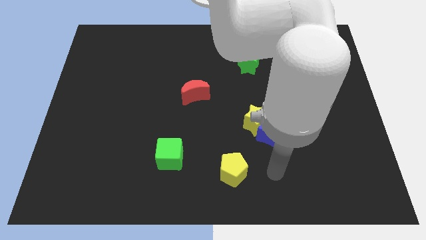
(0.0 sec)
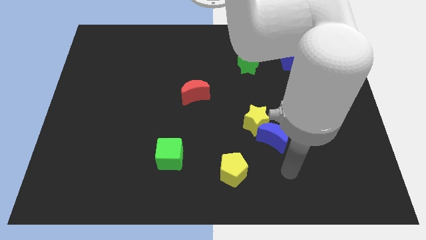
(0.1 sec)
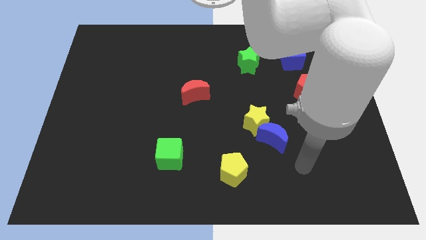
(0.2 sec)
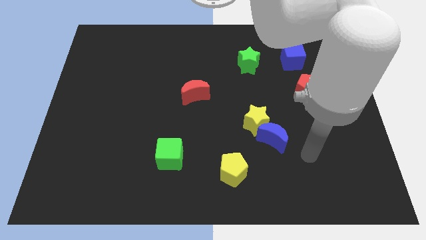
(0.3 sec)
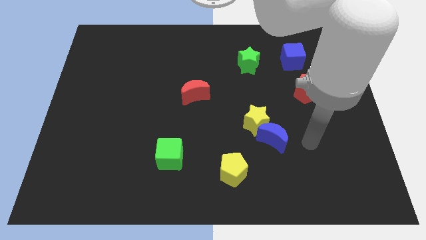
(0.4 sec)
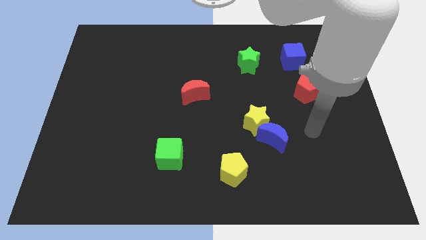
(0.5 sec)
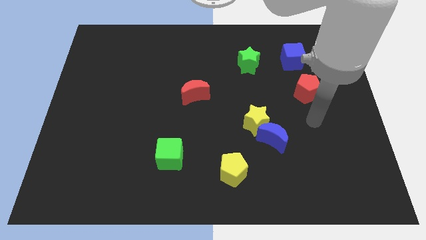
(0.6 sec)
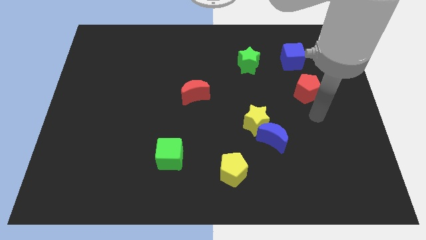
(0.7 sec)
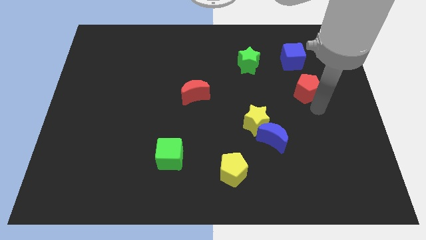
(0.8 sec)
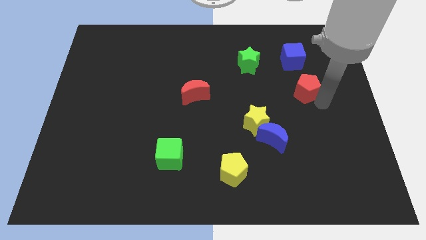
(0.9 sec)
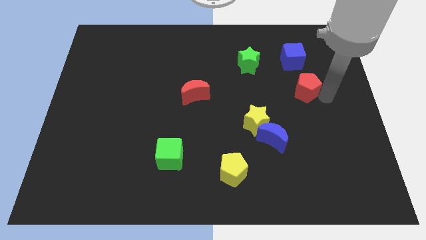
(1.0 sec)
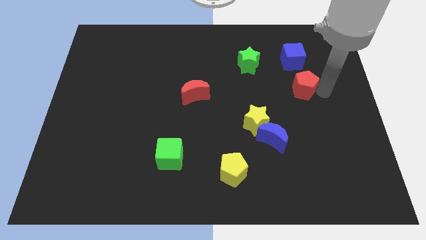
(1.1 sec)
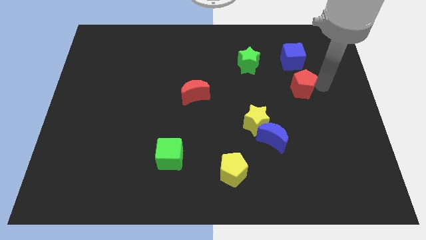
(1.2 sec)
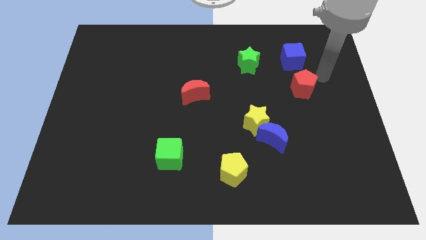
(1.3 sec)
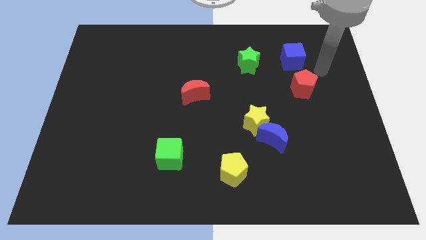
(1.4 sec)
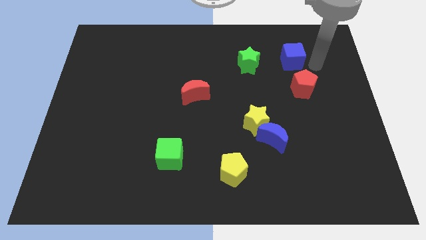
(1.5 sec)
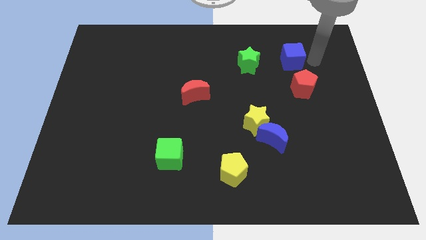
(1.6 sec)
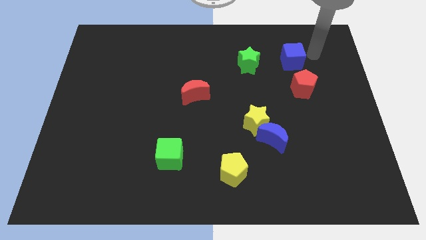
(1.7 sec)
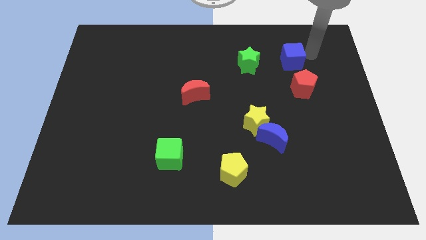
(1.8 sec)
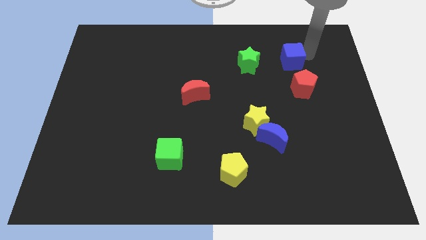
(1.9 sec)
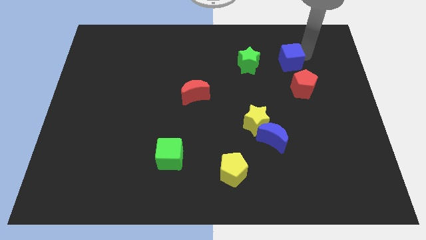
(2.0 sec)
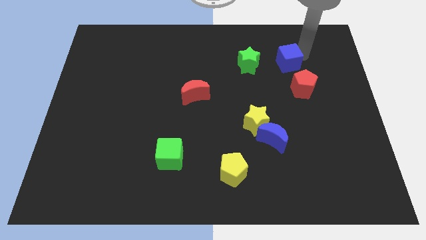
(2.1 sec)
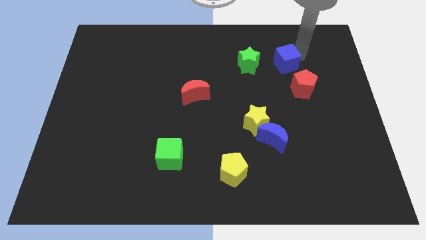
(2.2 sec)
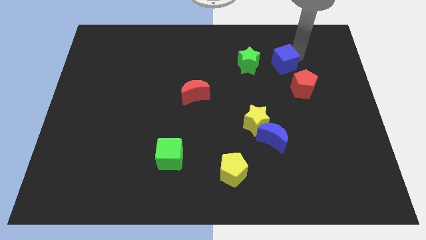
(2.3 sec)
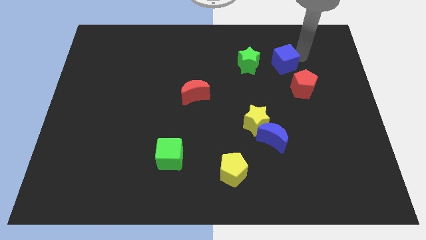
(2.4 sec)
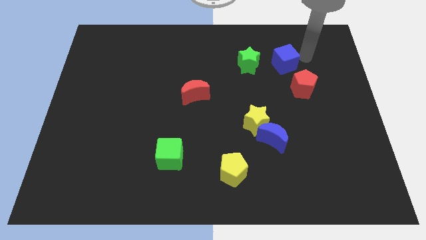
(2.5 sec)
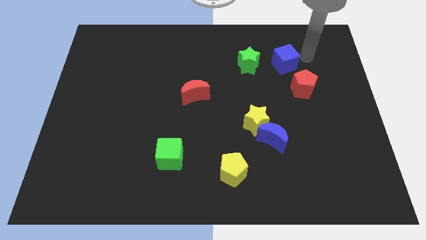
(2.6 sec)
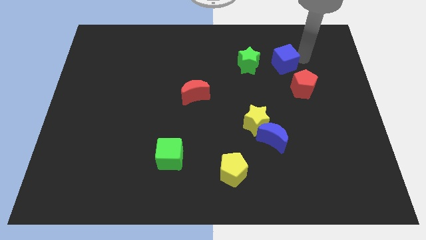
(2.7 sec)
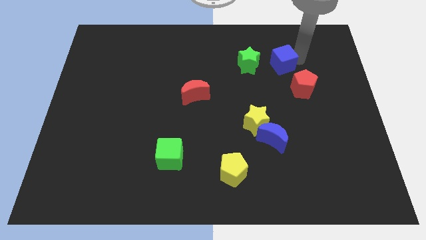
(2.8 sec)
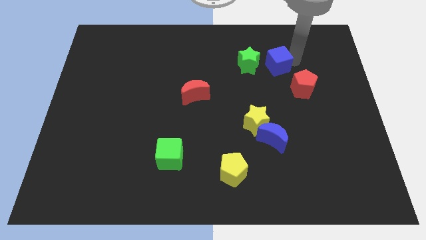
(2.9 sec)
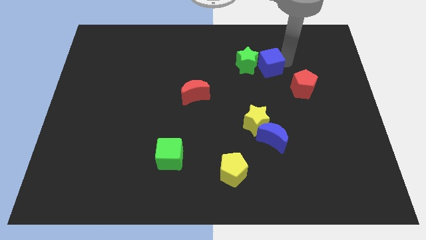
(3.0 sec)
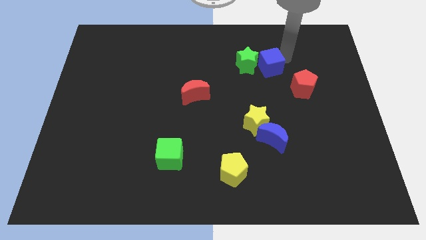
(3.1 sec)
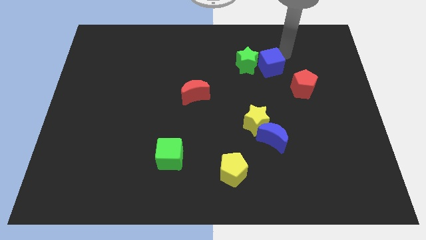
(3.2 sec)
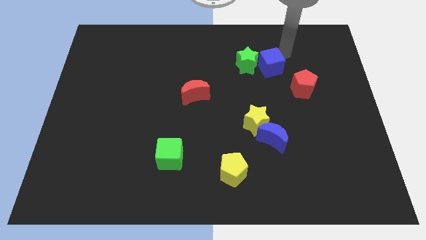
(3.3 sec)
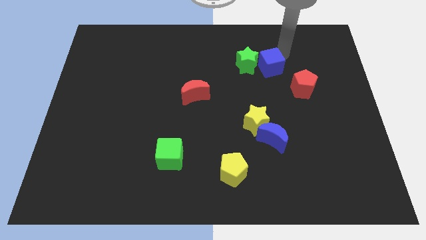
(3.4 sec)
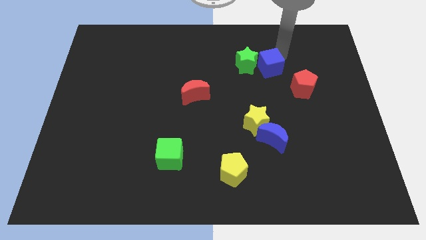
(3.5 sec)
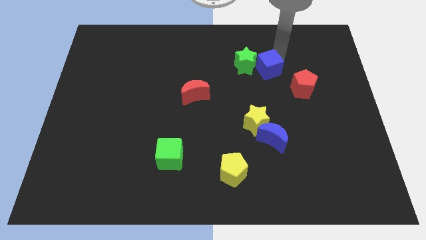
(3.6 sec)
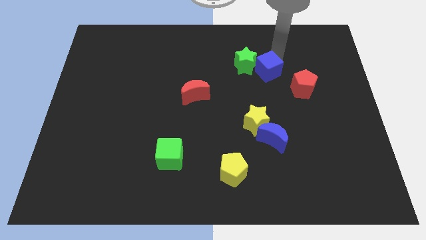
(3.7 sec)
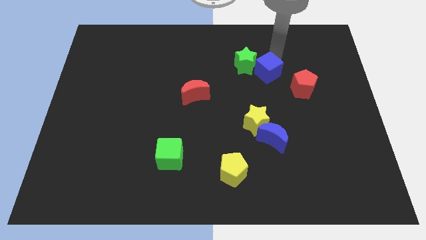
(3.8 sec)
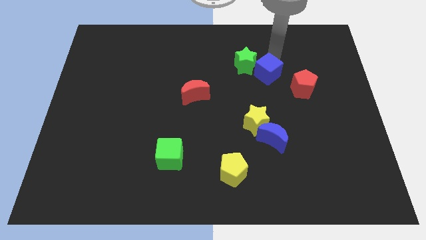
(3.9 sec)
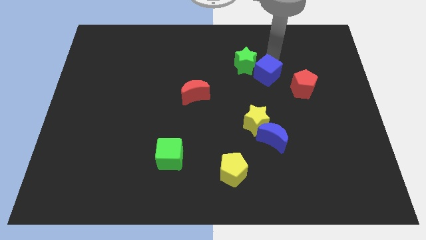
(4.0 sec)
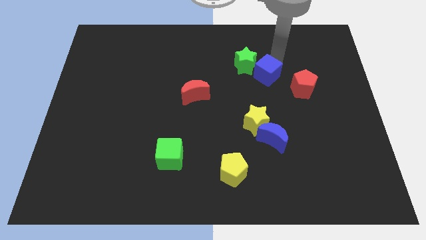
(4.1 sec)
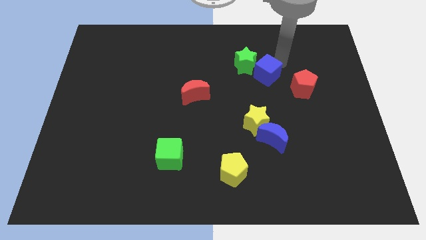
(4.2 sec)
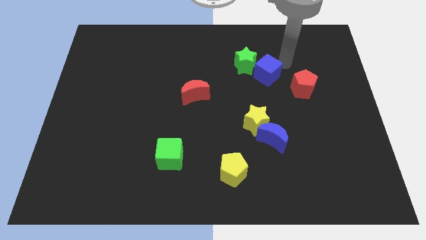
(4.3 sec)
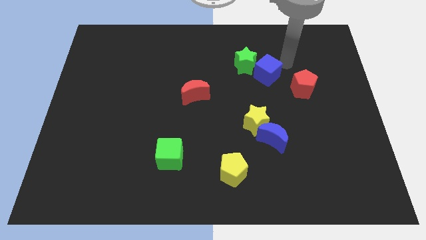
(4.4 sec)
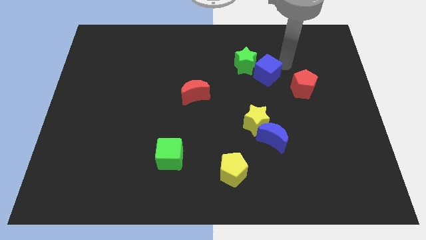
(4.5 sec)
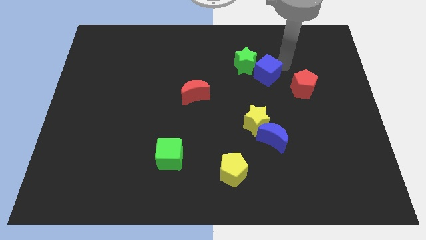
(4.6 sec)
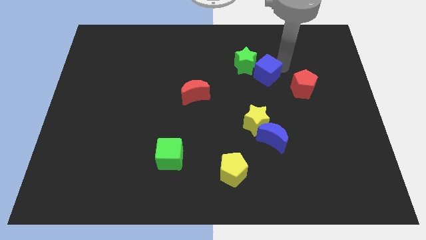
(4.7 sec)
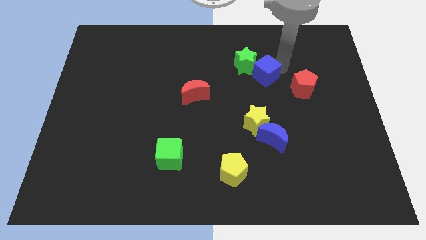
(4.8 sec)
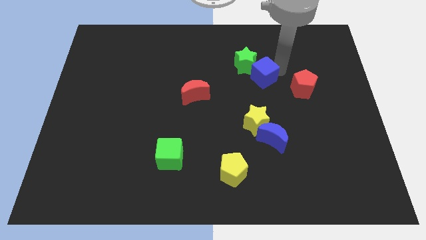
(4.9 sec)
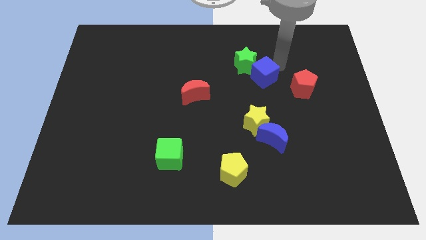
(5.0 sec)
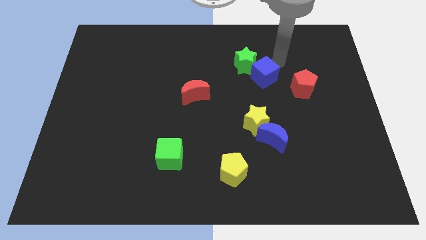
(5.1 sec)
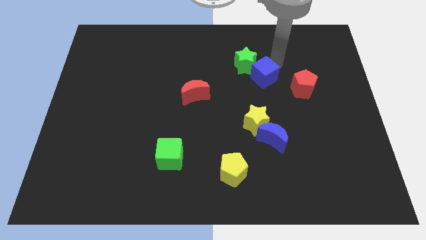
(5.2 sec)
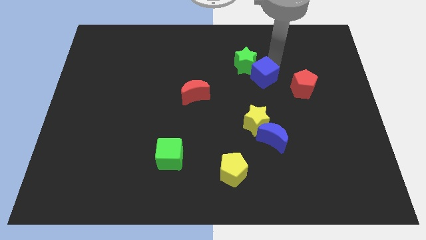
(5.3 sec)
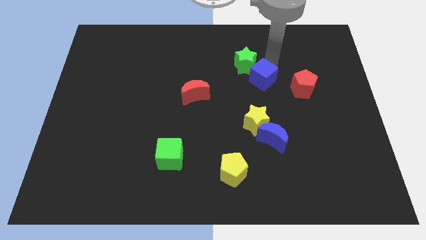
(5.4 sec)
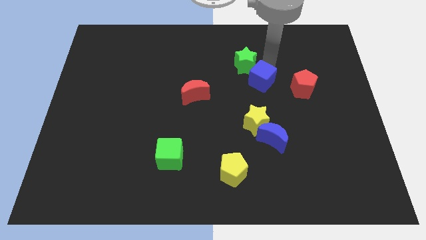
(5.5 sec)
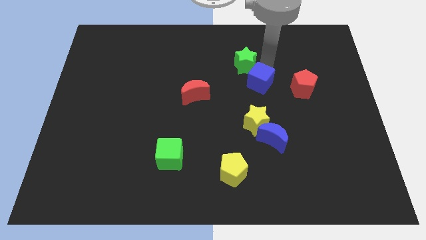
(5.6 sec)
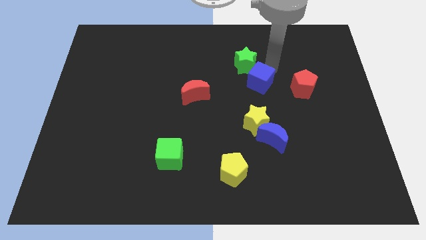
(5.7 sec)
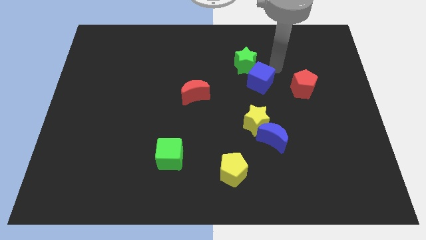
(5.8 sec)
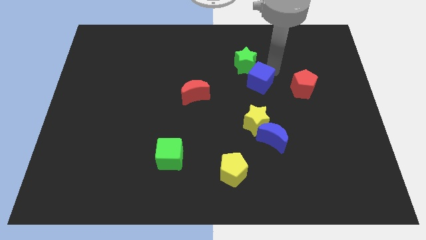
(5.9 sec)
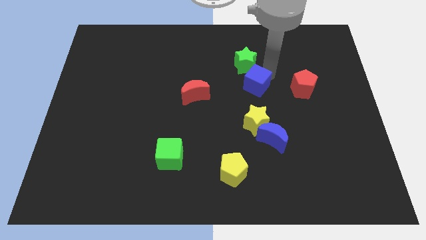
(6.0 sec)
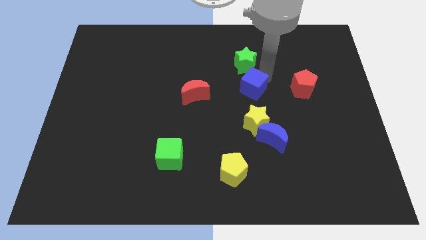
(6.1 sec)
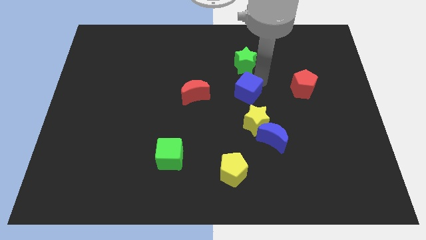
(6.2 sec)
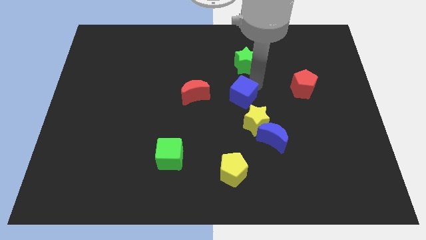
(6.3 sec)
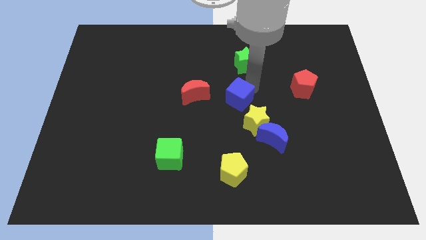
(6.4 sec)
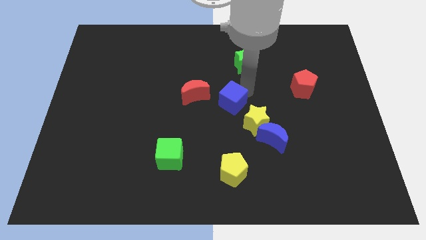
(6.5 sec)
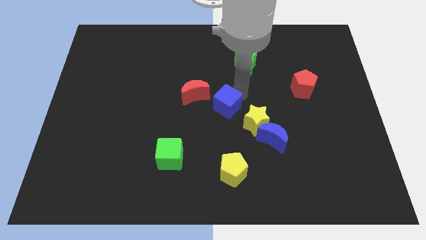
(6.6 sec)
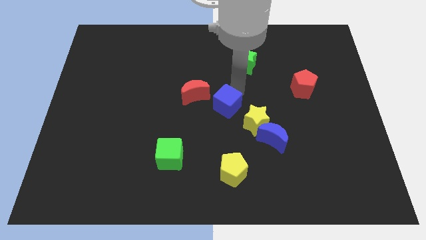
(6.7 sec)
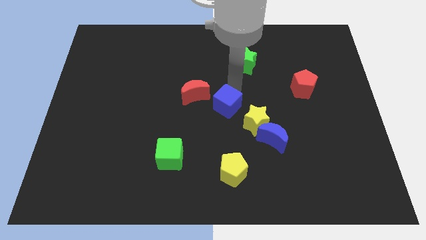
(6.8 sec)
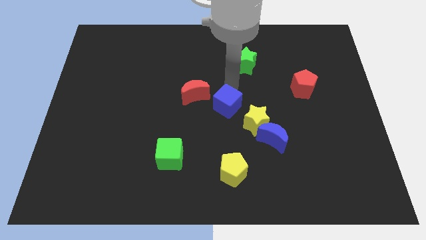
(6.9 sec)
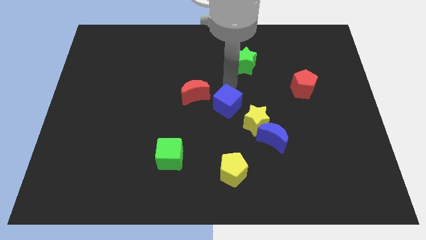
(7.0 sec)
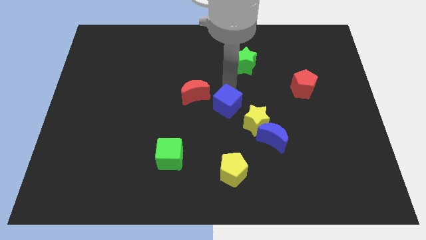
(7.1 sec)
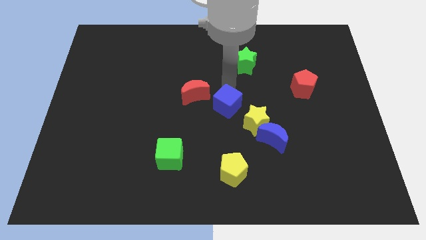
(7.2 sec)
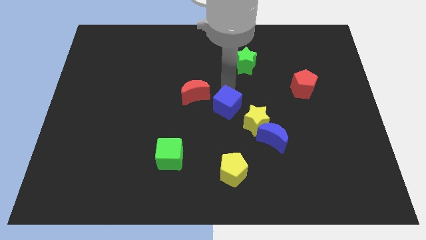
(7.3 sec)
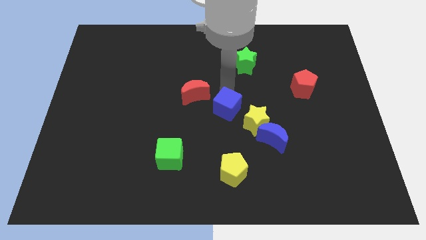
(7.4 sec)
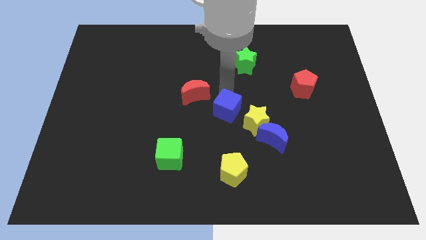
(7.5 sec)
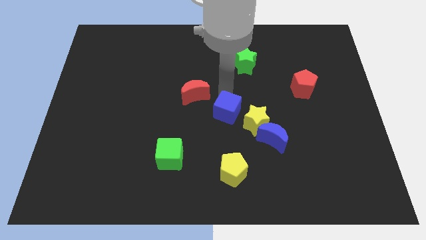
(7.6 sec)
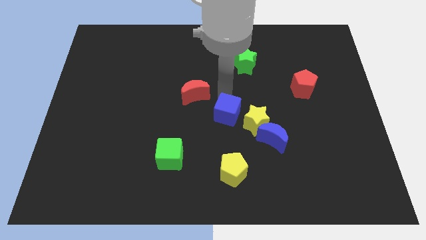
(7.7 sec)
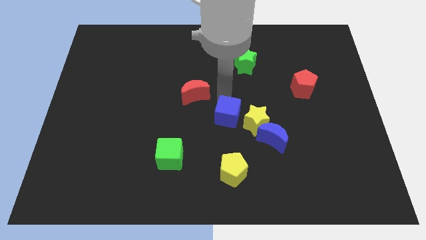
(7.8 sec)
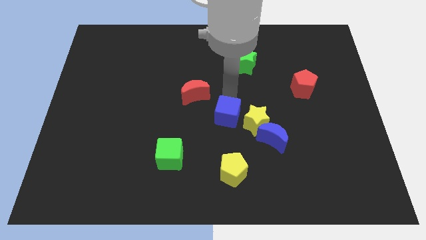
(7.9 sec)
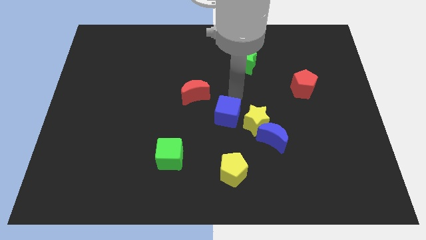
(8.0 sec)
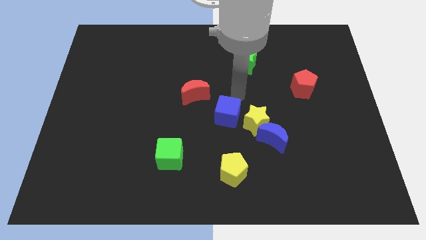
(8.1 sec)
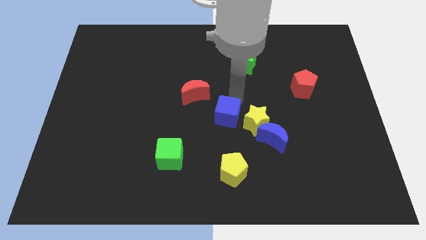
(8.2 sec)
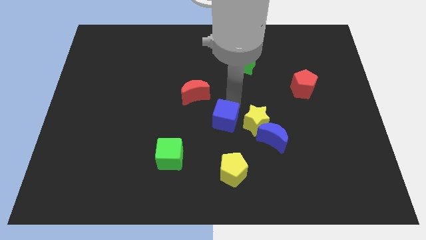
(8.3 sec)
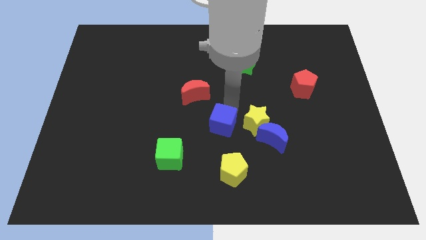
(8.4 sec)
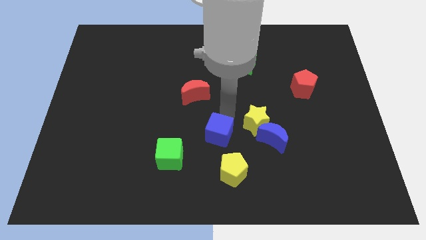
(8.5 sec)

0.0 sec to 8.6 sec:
slide the blue cube diagonally up and to the left of the yellow pentagon

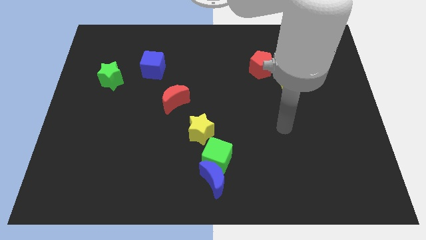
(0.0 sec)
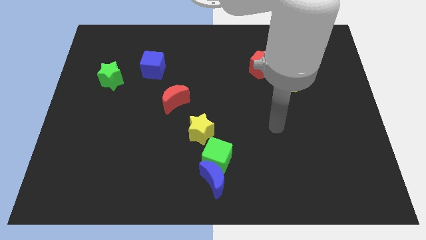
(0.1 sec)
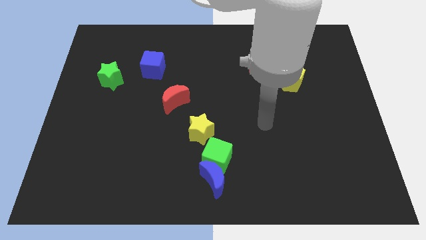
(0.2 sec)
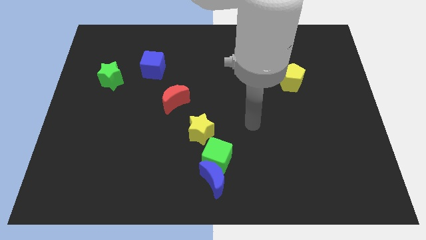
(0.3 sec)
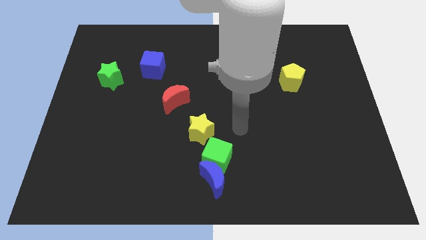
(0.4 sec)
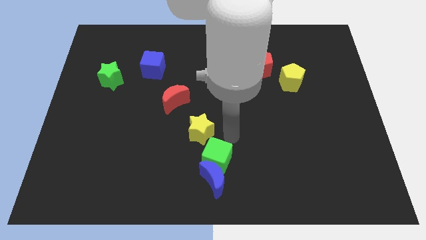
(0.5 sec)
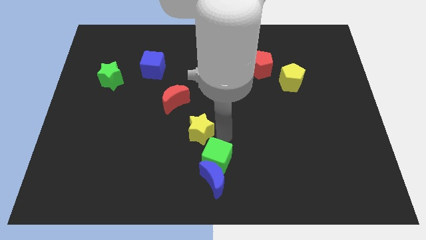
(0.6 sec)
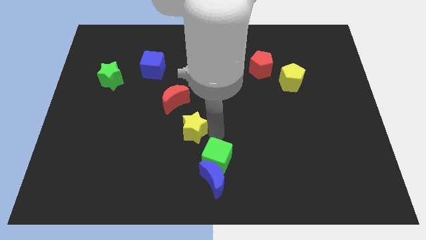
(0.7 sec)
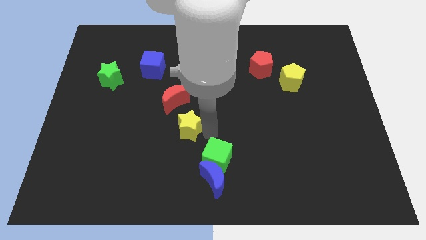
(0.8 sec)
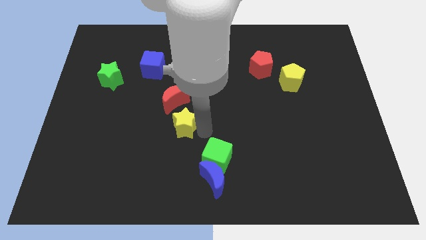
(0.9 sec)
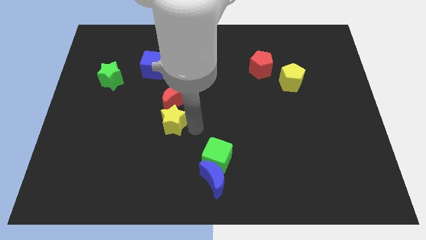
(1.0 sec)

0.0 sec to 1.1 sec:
push the yellow star to the bottom left side of the red moon
